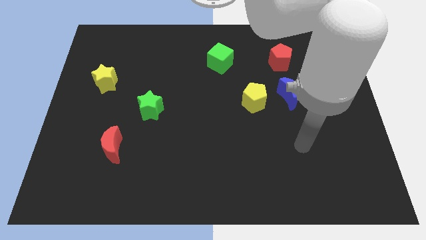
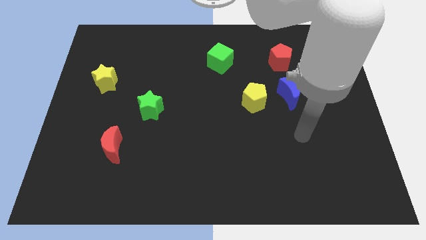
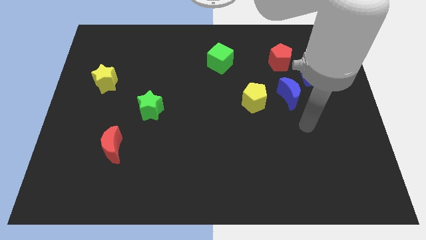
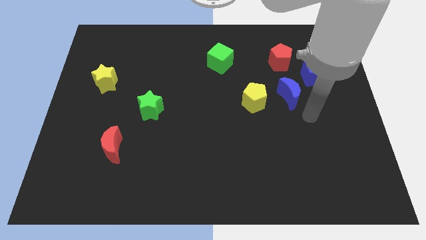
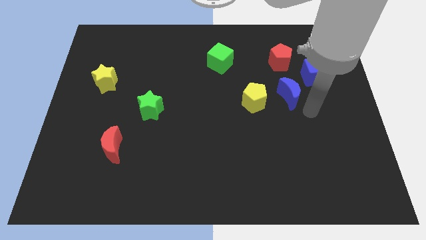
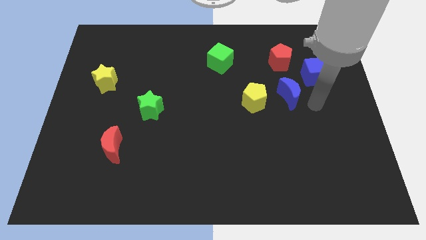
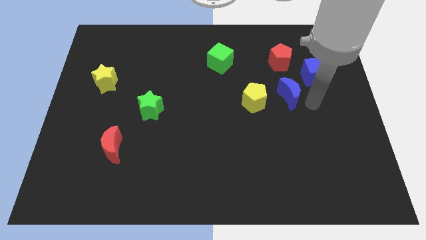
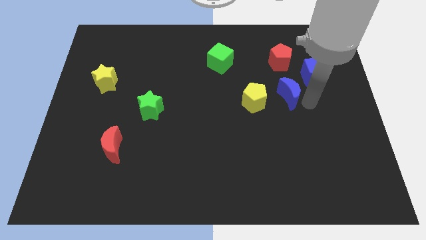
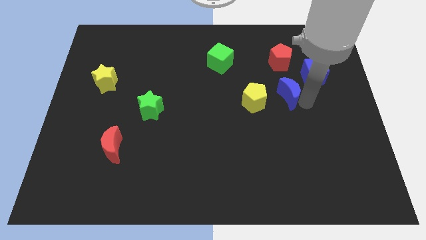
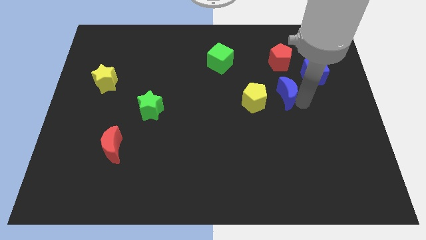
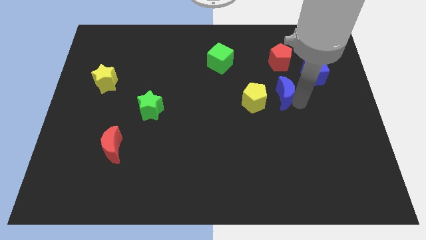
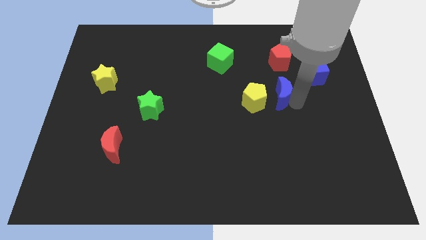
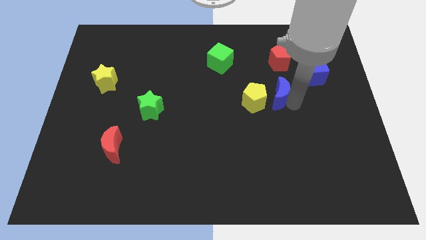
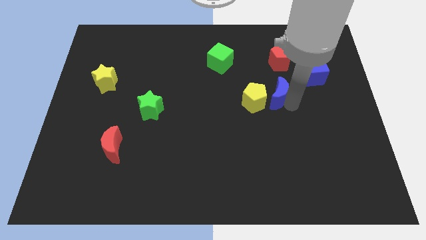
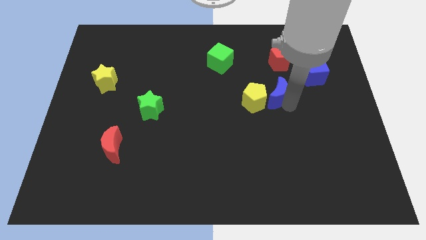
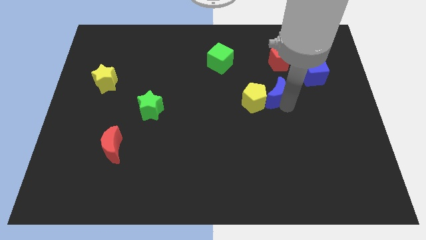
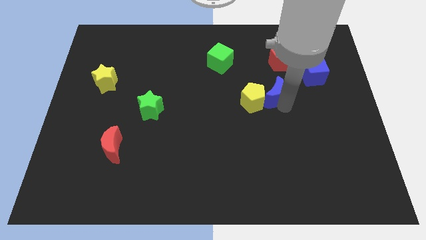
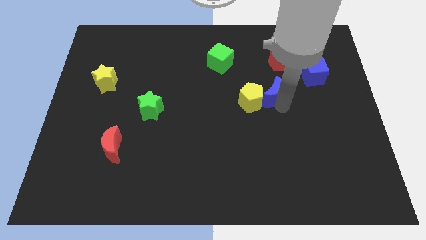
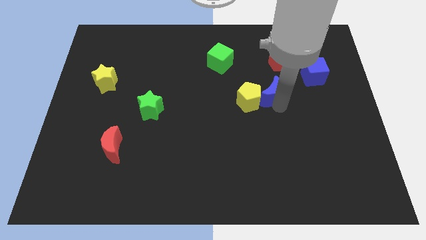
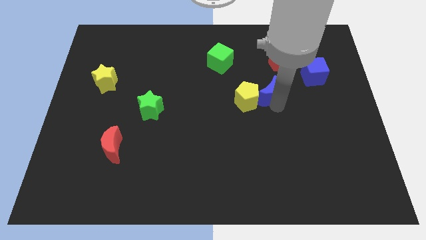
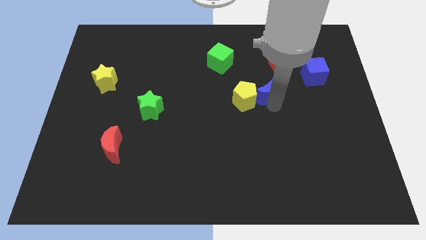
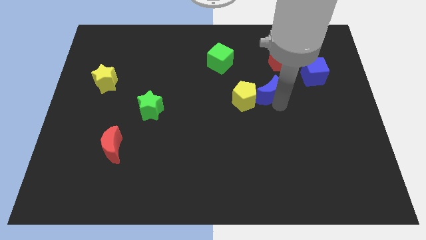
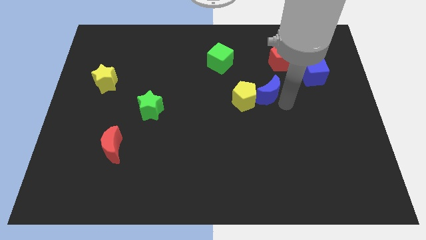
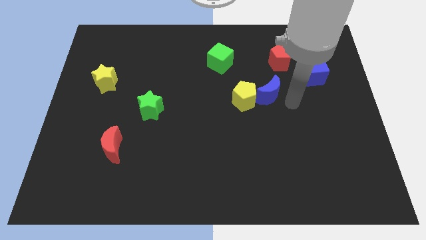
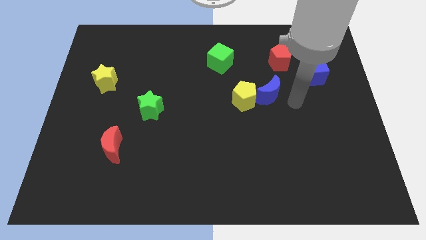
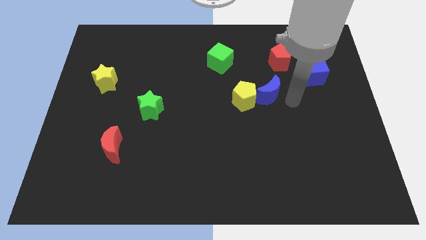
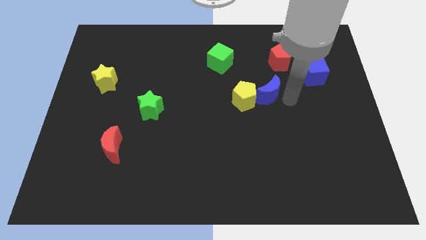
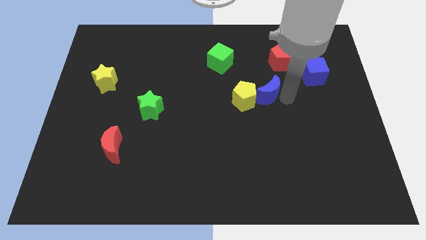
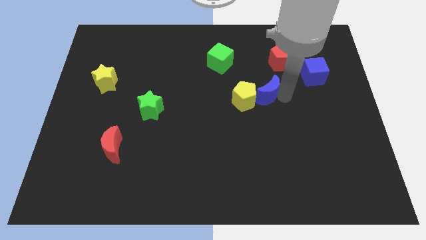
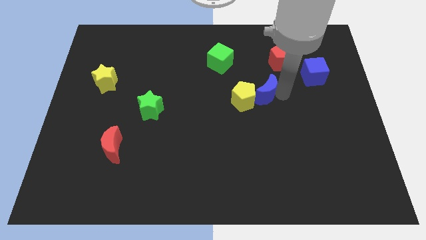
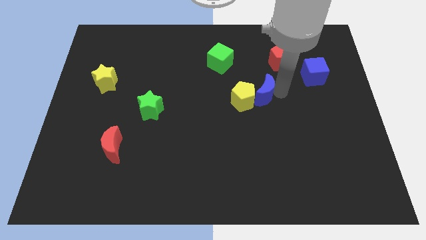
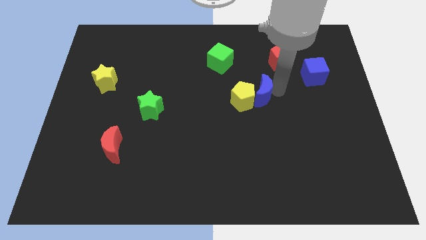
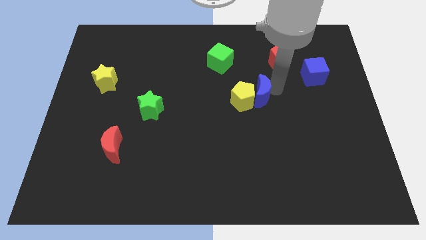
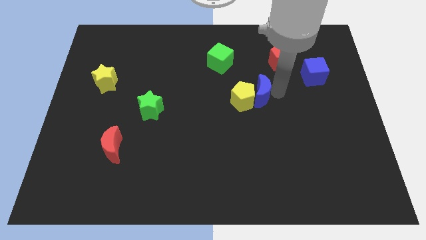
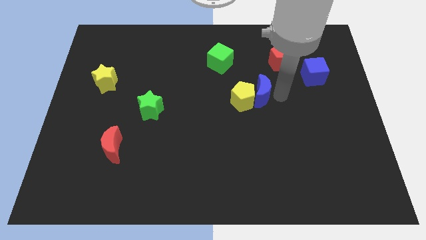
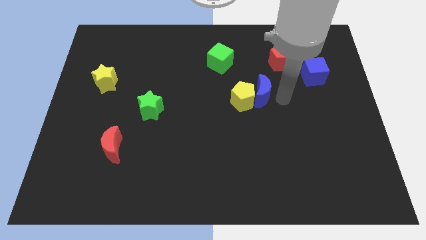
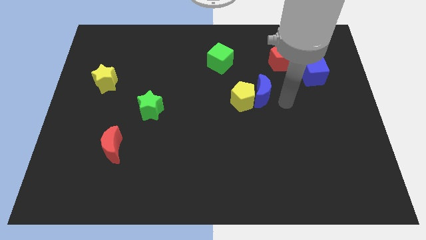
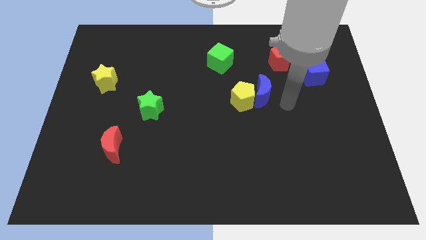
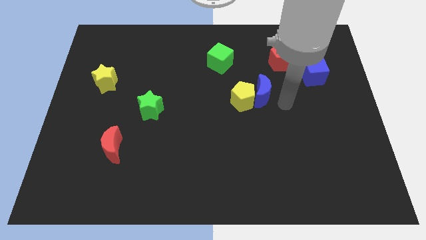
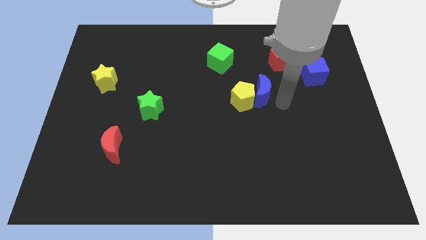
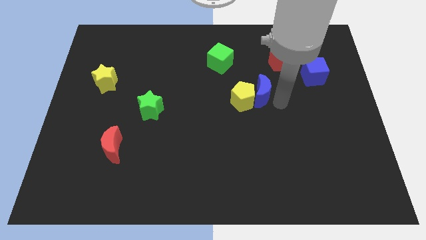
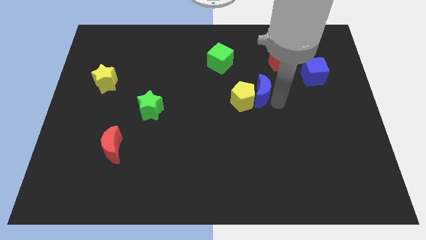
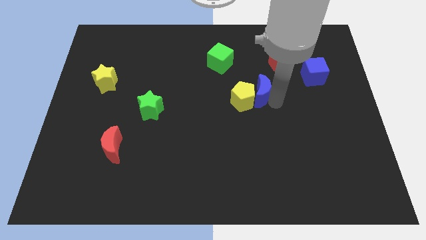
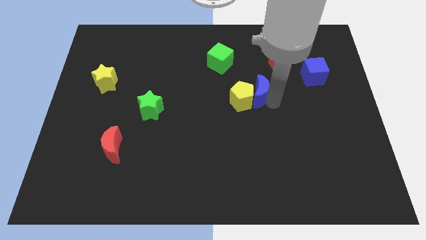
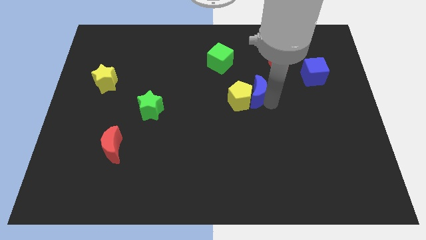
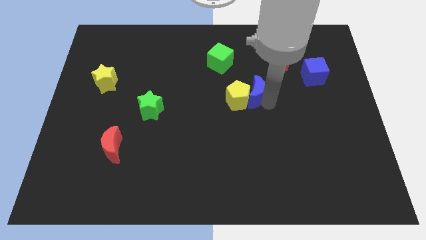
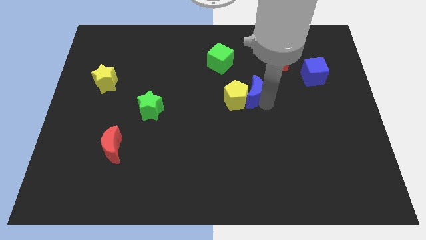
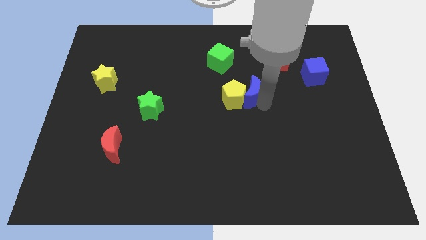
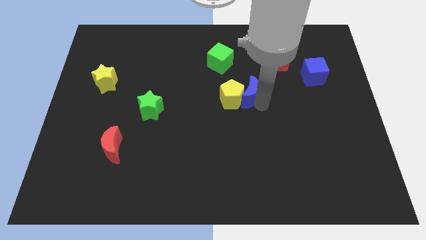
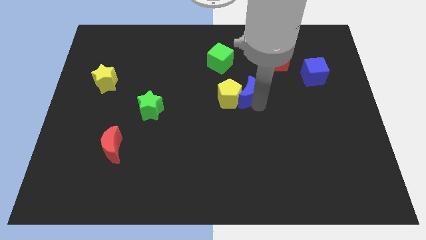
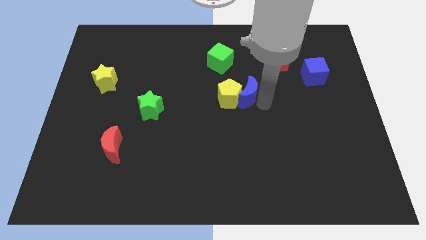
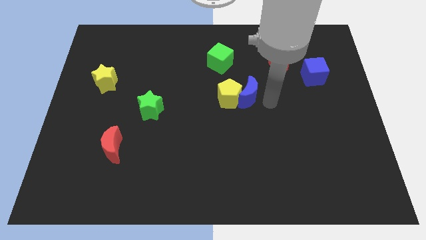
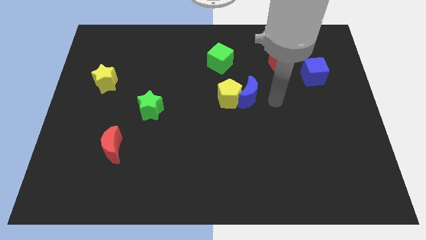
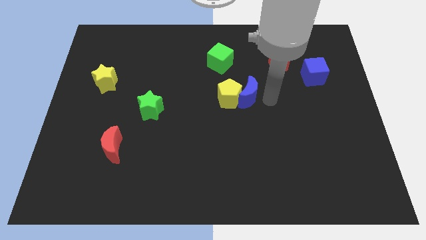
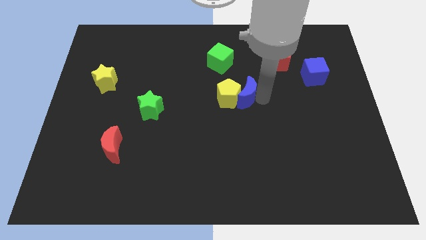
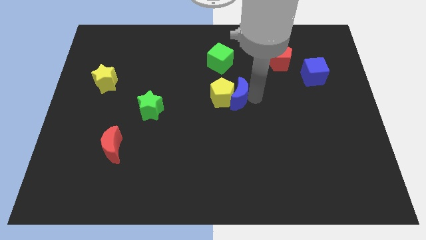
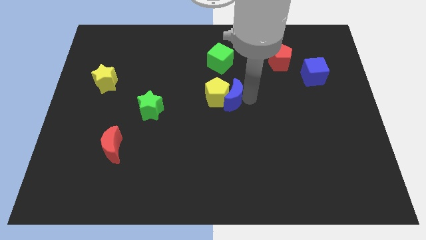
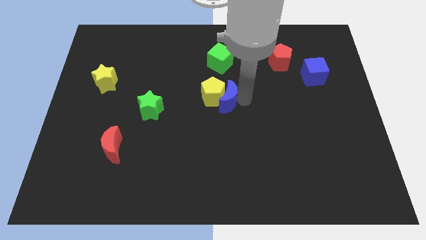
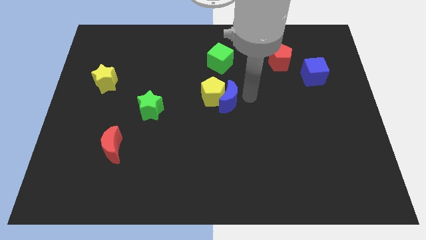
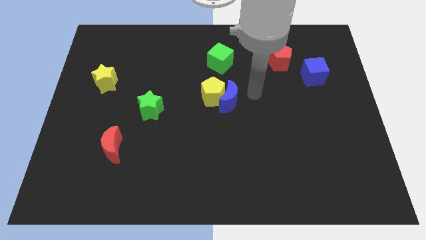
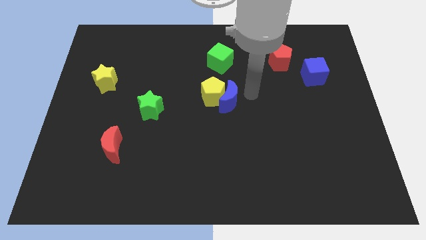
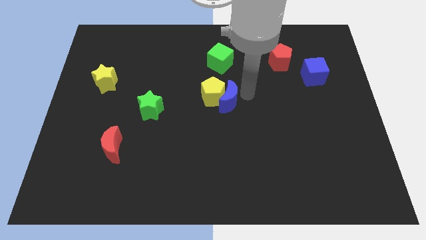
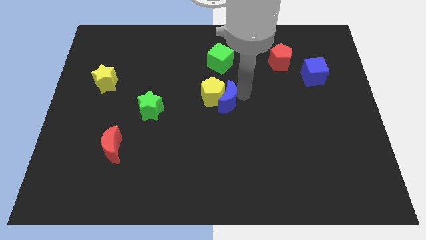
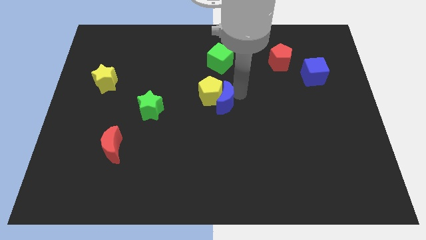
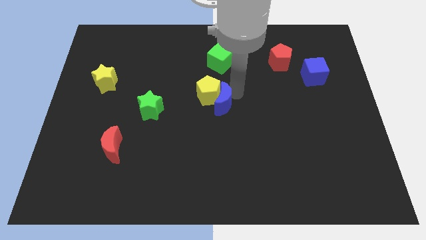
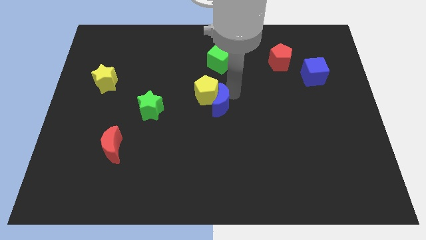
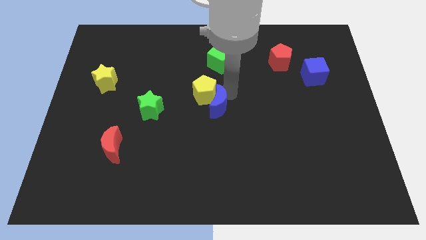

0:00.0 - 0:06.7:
push the blue moon just right of the green star

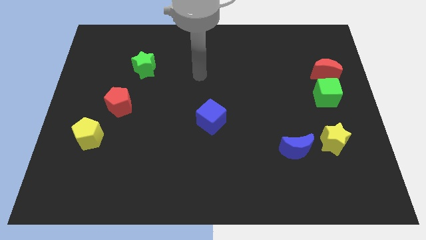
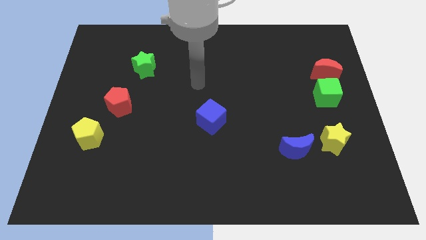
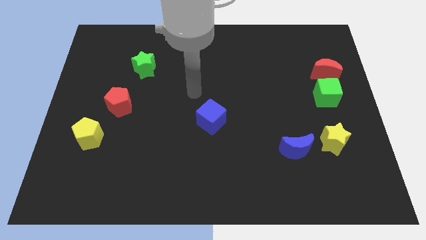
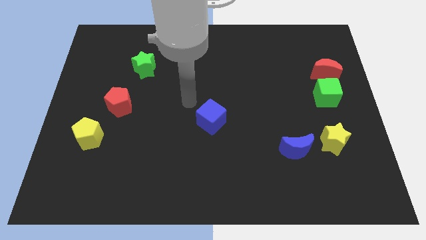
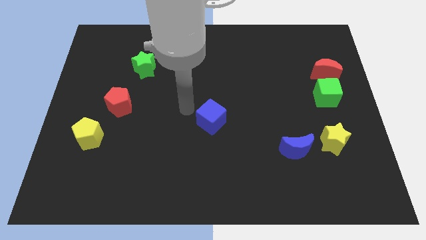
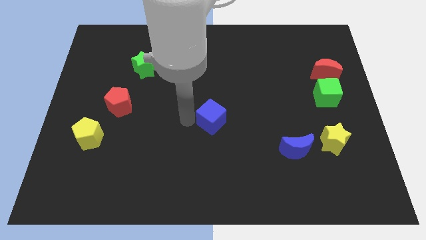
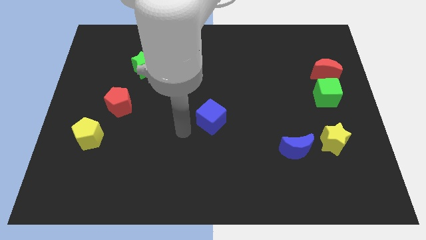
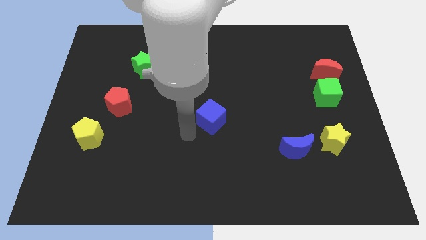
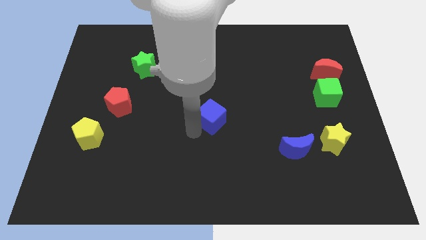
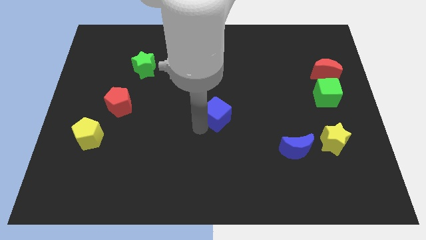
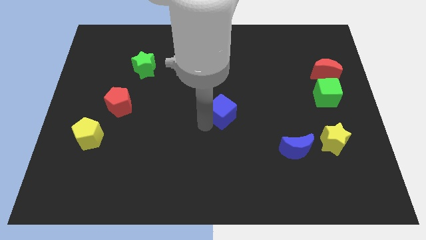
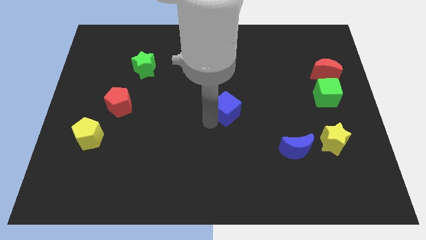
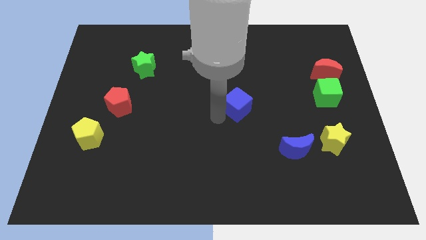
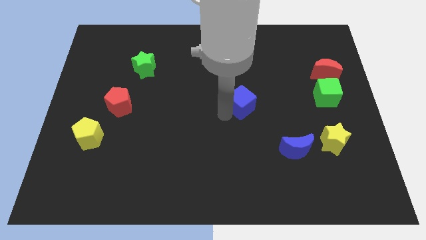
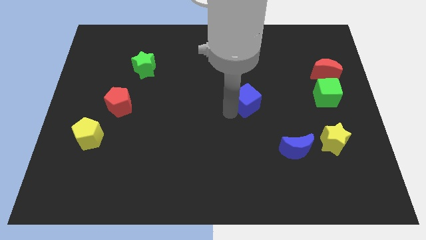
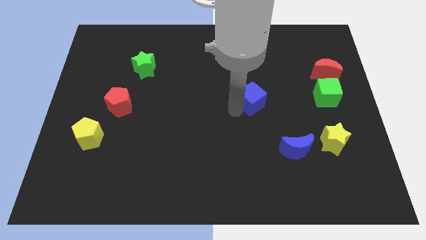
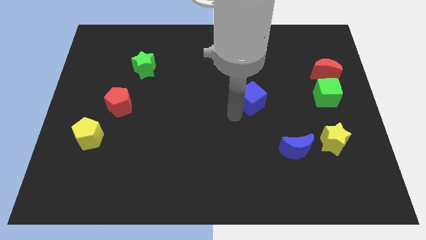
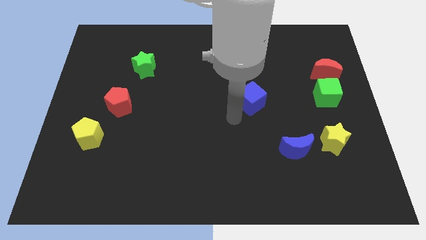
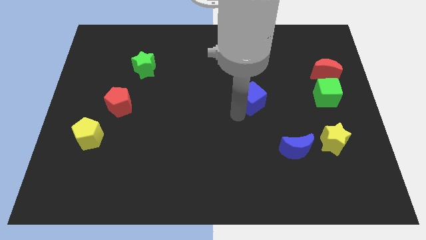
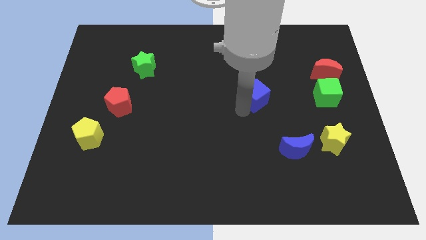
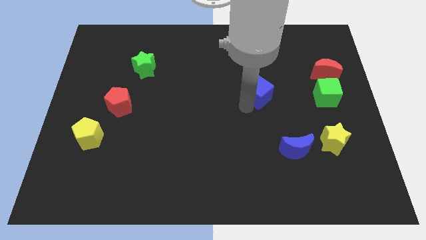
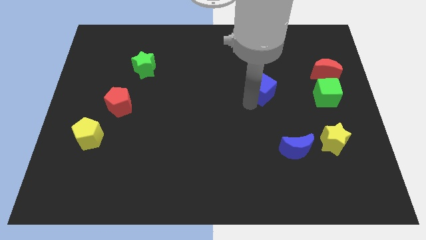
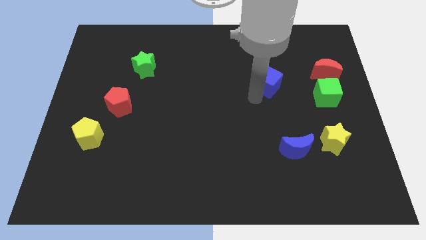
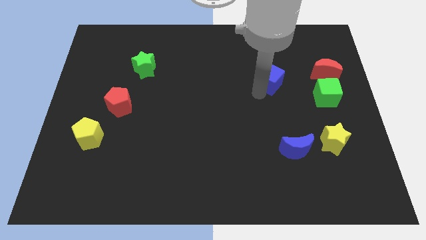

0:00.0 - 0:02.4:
move the blue cube just left of the red moon
